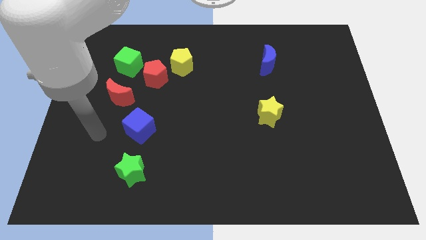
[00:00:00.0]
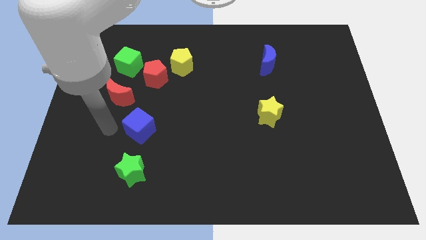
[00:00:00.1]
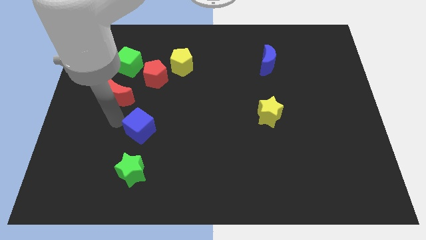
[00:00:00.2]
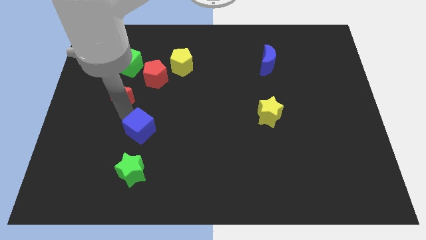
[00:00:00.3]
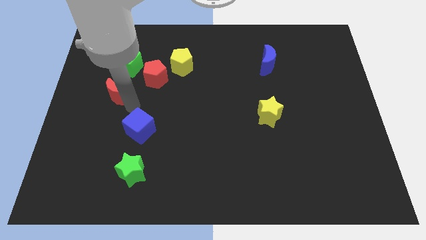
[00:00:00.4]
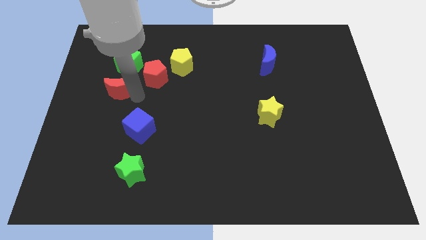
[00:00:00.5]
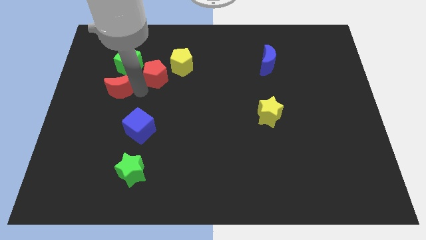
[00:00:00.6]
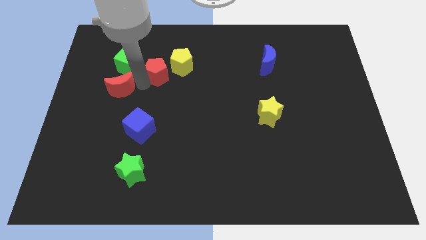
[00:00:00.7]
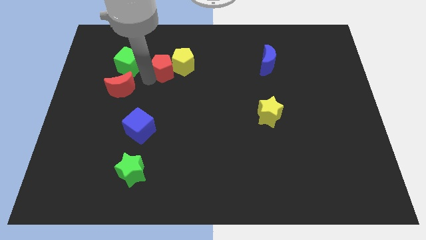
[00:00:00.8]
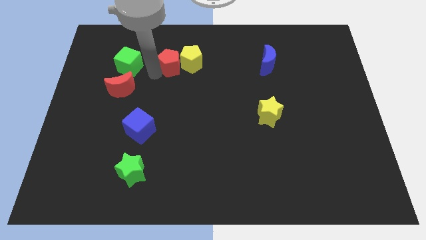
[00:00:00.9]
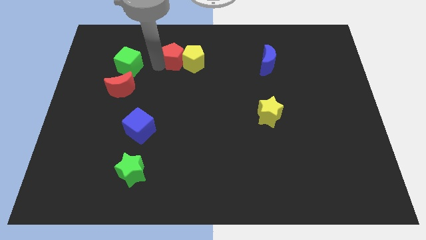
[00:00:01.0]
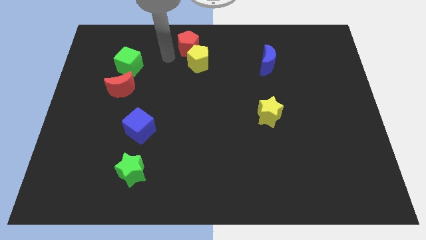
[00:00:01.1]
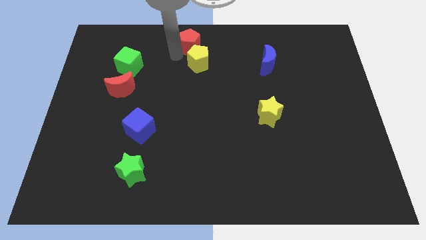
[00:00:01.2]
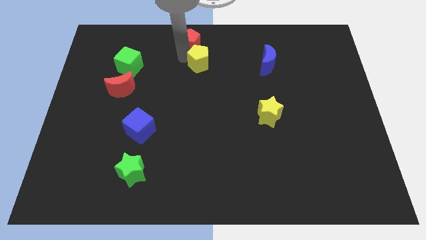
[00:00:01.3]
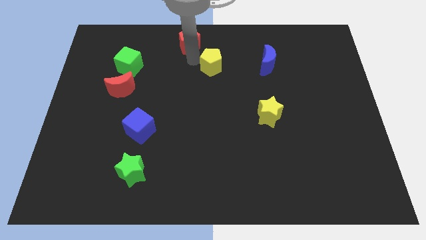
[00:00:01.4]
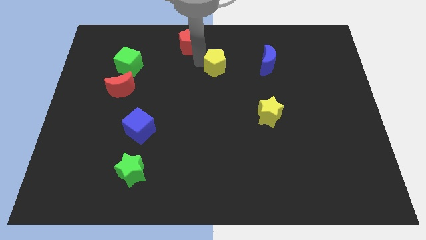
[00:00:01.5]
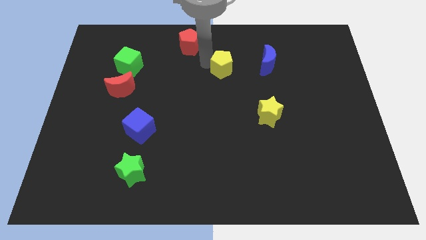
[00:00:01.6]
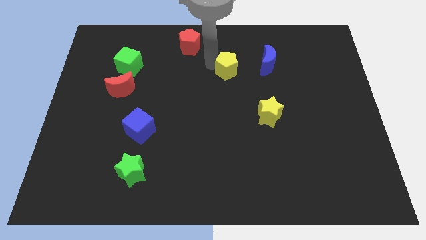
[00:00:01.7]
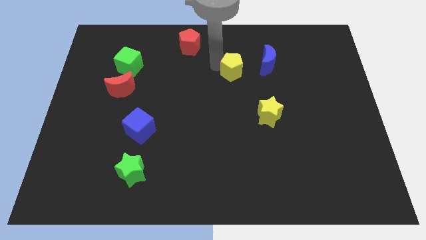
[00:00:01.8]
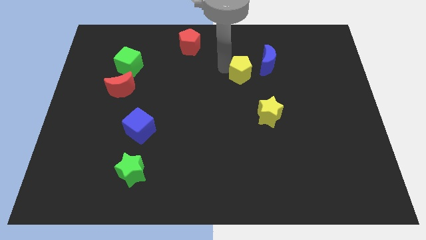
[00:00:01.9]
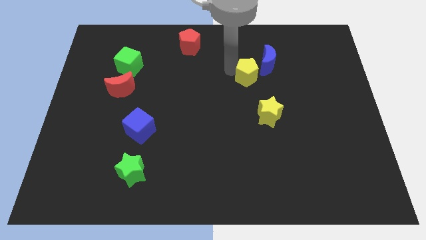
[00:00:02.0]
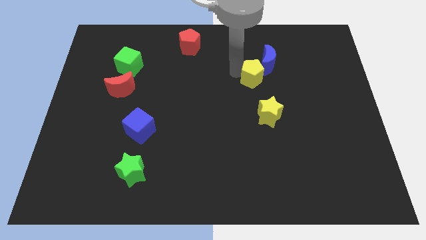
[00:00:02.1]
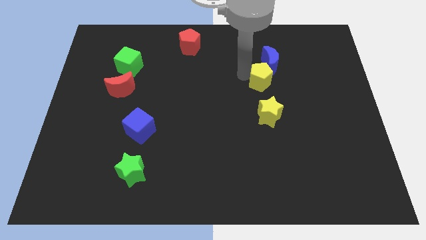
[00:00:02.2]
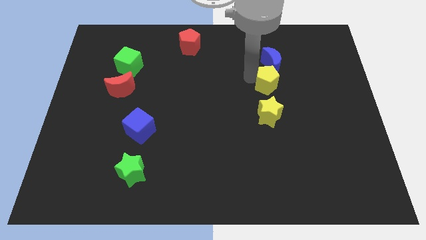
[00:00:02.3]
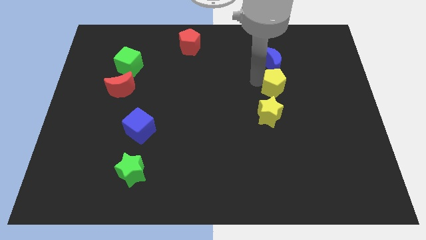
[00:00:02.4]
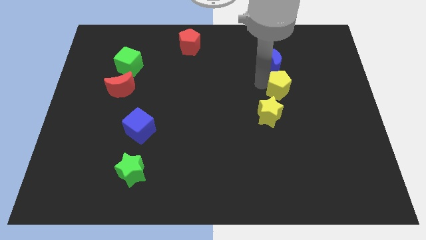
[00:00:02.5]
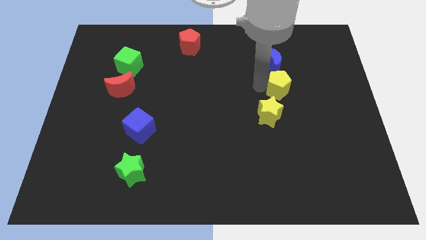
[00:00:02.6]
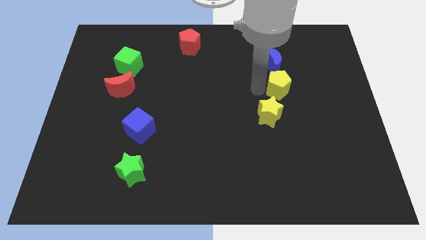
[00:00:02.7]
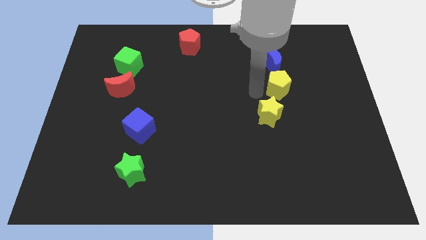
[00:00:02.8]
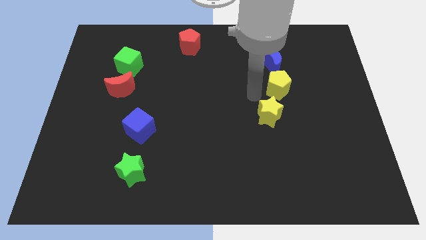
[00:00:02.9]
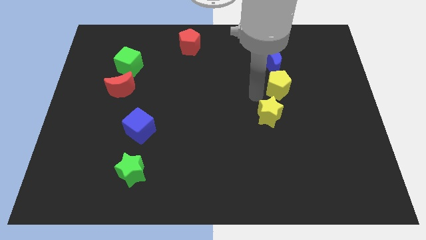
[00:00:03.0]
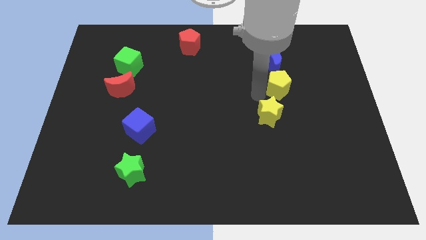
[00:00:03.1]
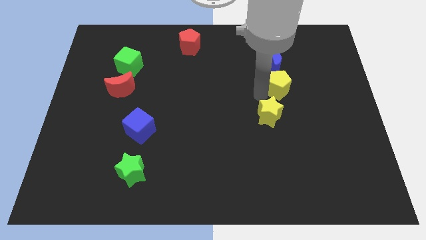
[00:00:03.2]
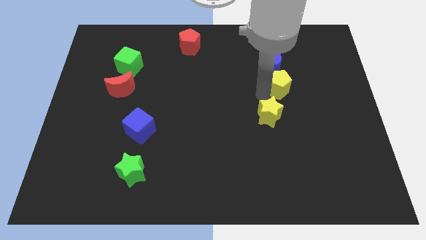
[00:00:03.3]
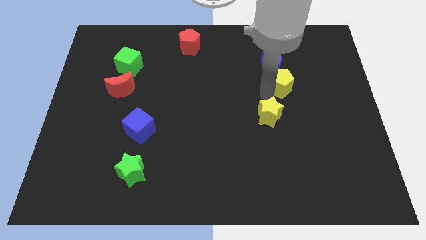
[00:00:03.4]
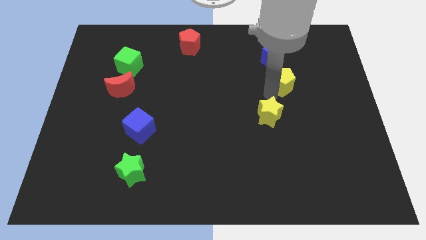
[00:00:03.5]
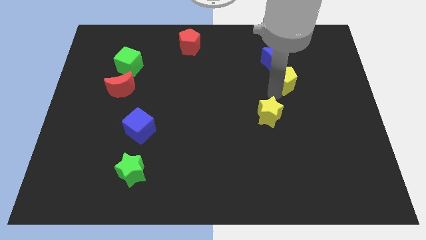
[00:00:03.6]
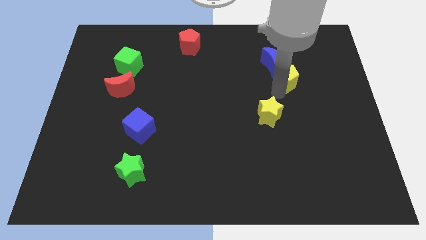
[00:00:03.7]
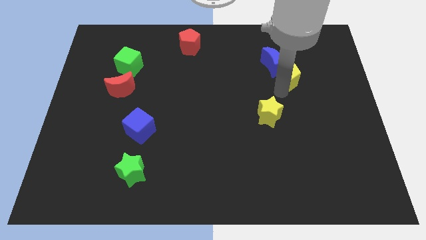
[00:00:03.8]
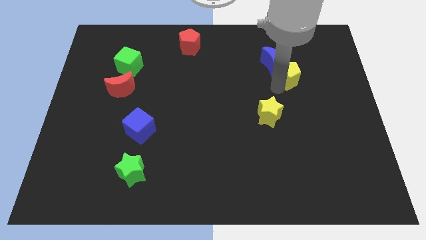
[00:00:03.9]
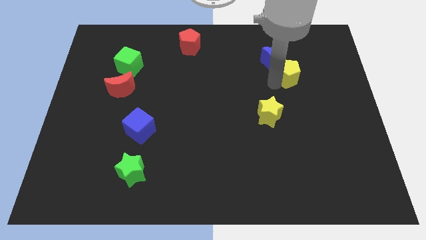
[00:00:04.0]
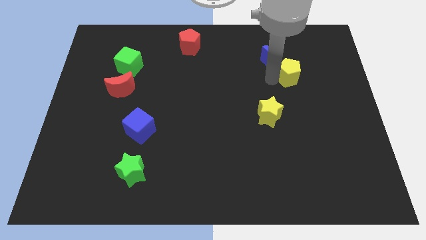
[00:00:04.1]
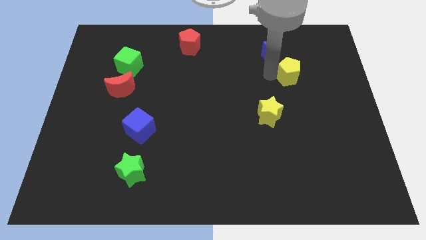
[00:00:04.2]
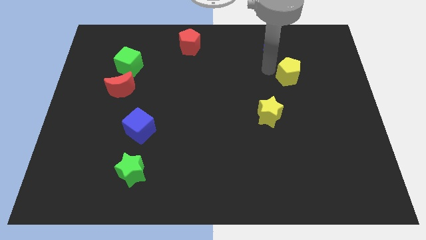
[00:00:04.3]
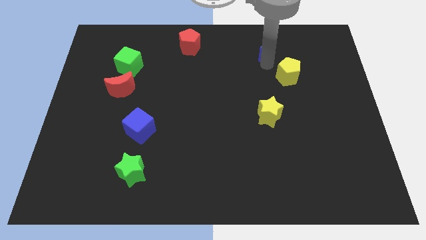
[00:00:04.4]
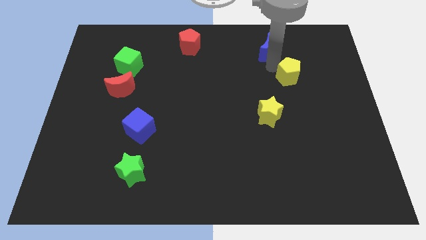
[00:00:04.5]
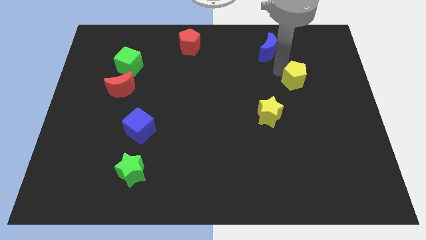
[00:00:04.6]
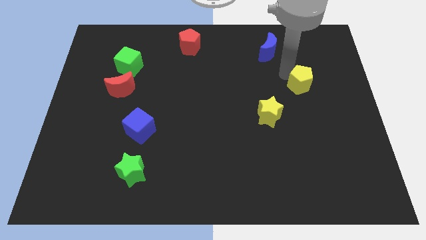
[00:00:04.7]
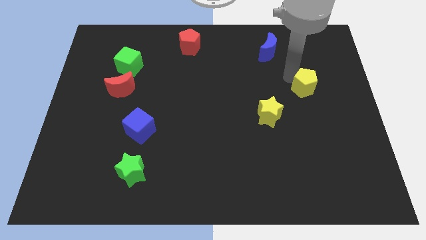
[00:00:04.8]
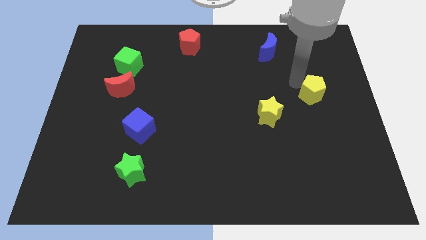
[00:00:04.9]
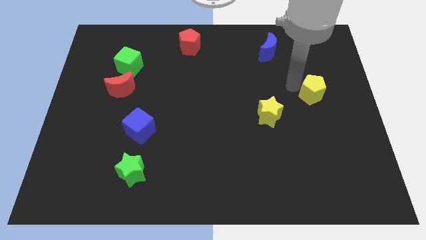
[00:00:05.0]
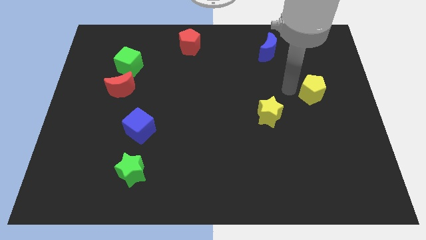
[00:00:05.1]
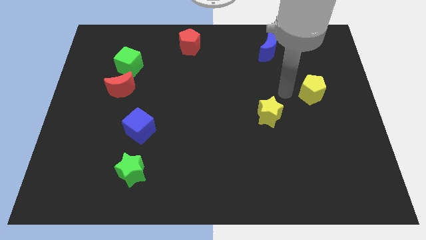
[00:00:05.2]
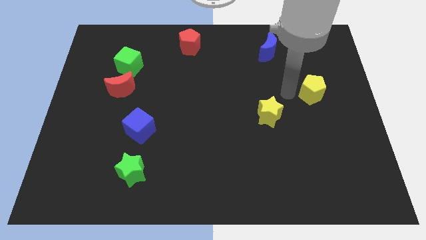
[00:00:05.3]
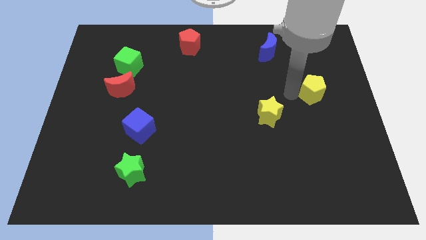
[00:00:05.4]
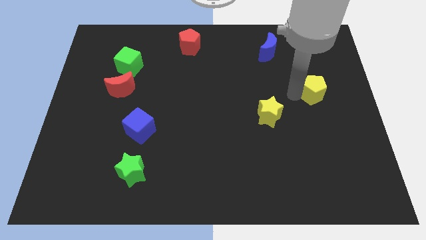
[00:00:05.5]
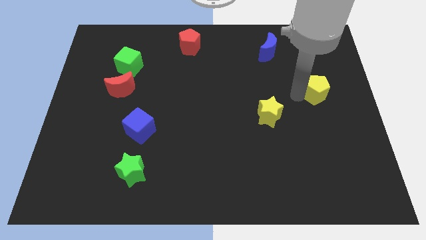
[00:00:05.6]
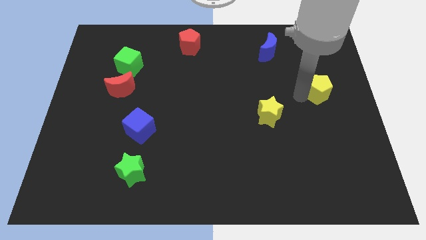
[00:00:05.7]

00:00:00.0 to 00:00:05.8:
push the yellow pentagon to the center right
